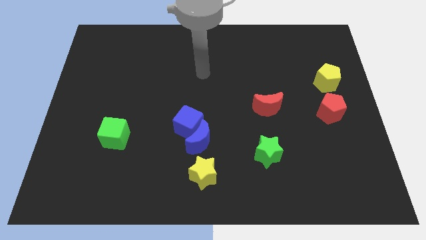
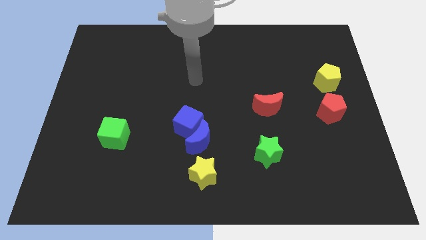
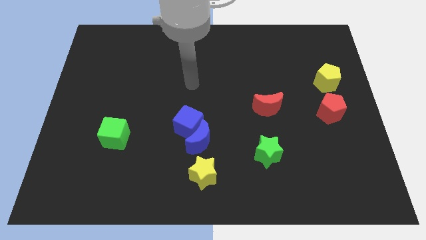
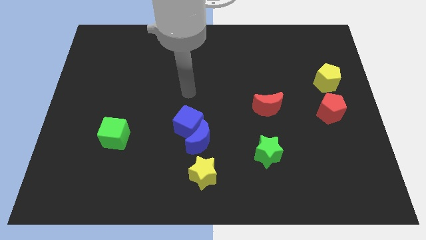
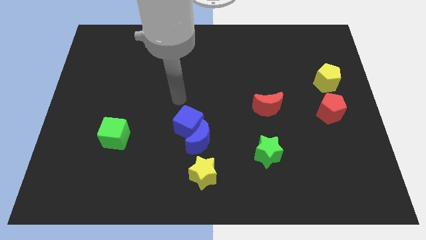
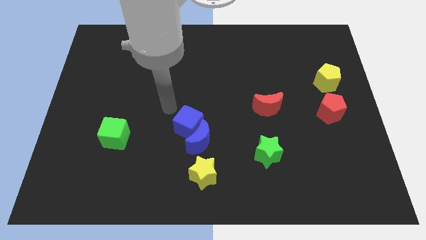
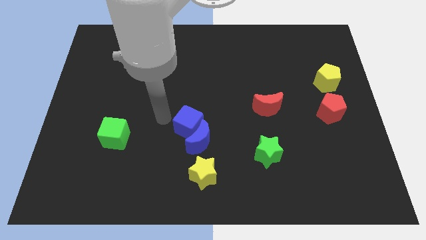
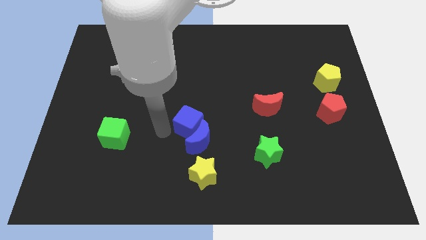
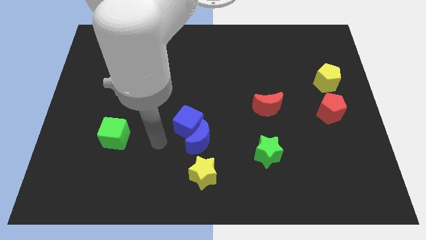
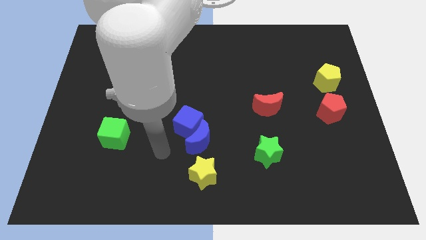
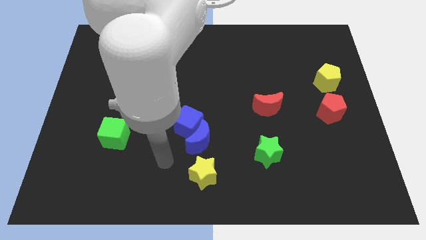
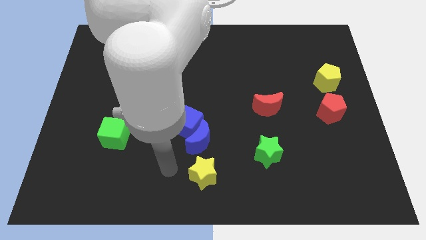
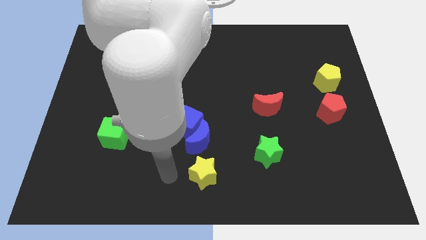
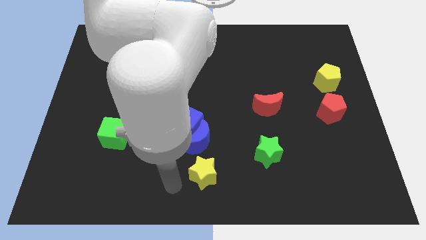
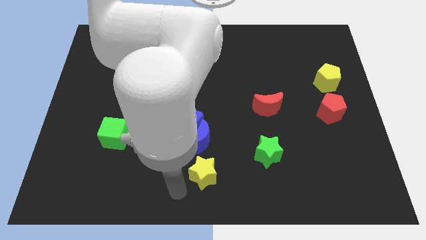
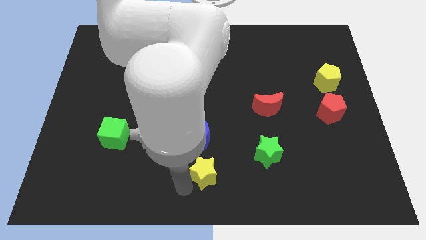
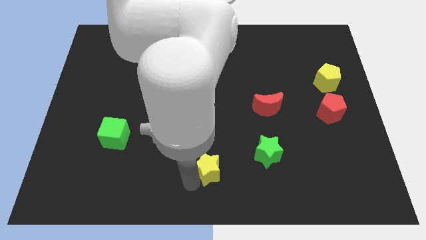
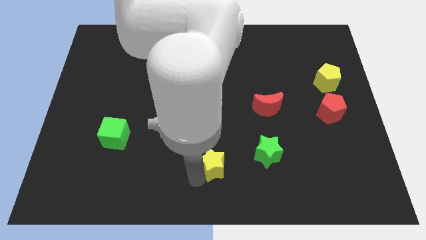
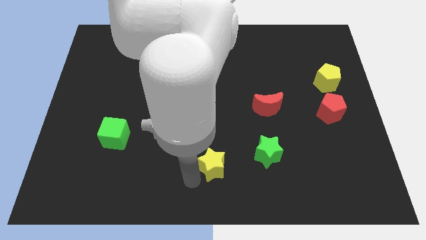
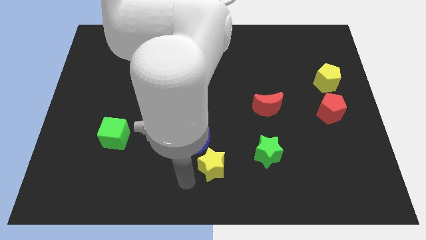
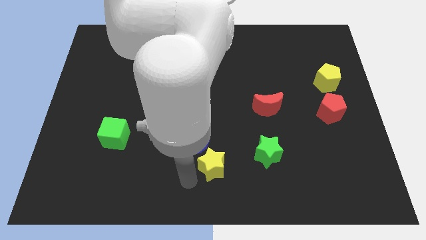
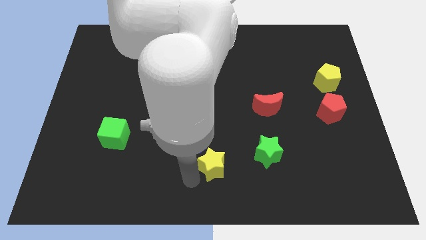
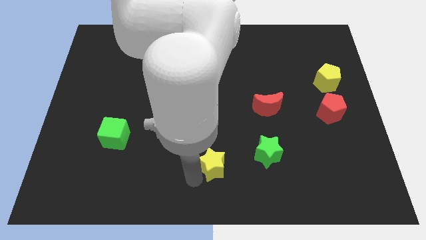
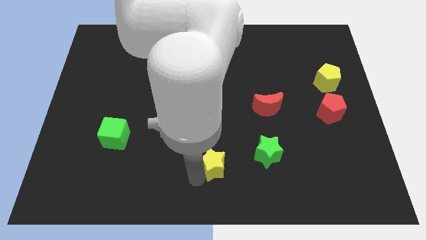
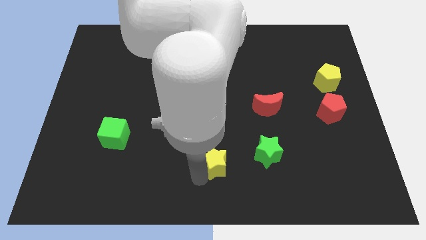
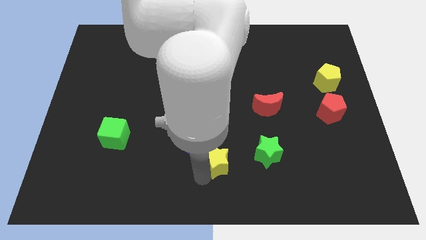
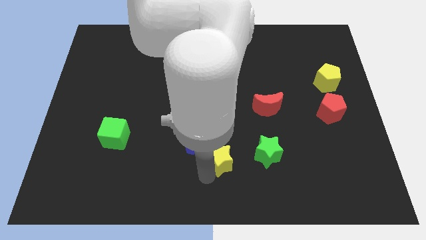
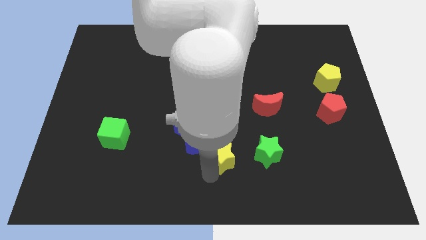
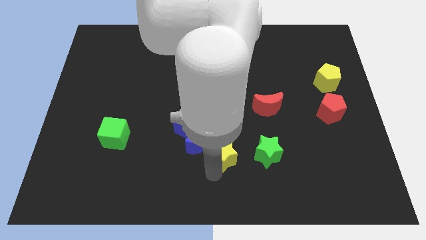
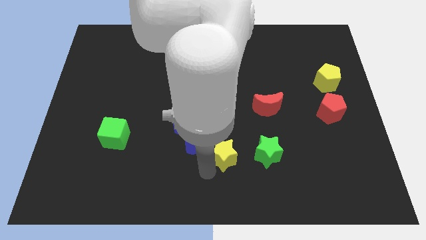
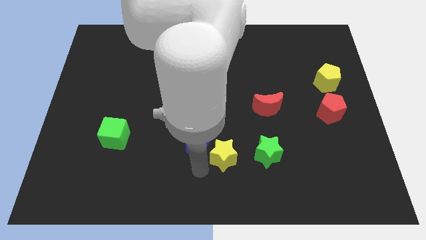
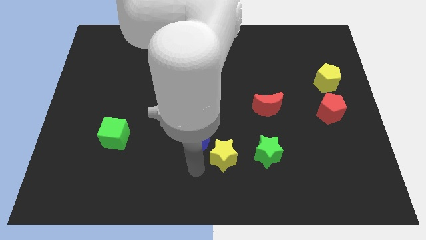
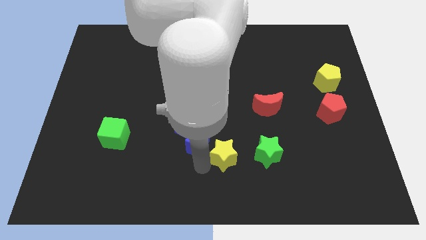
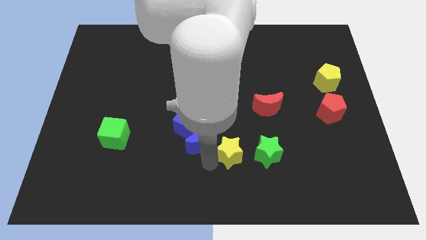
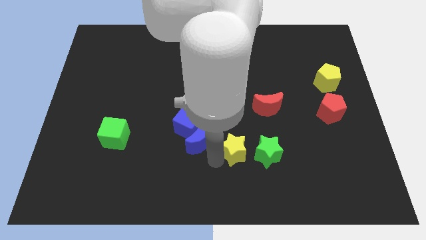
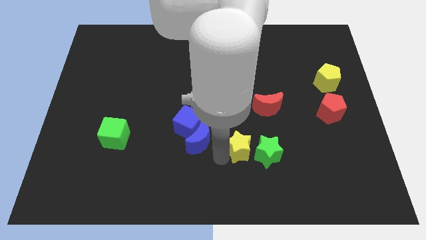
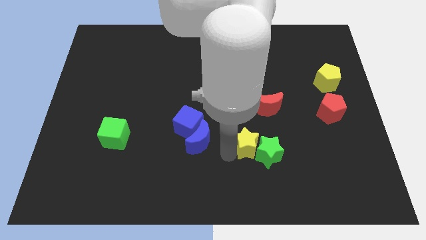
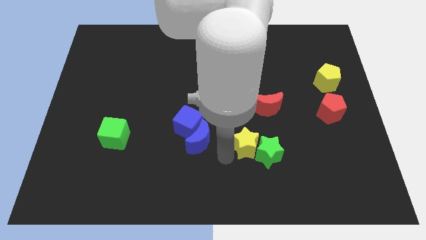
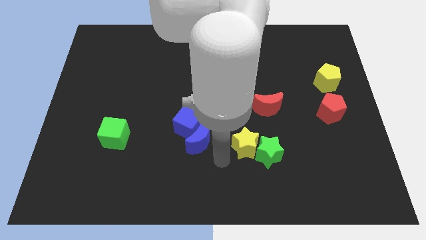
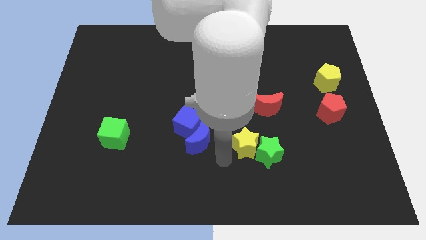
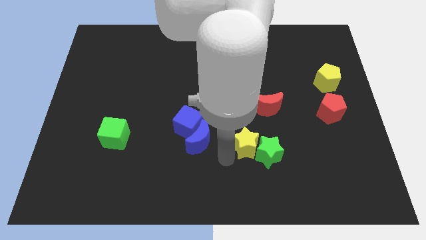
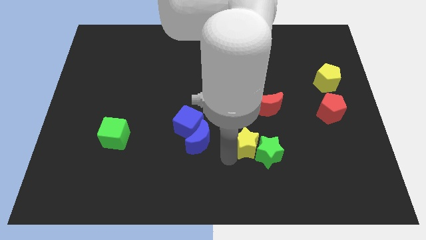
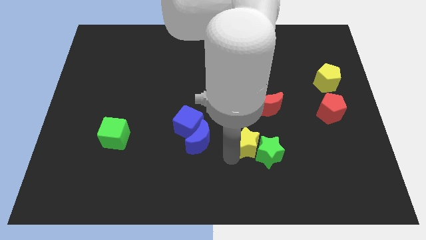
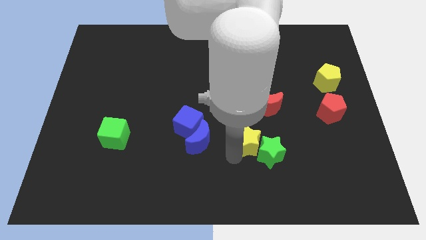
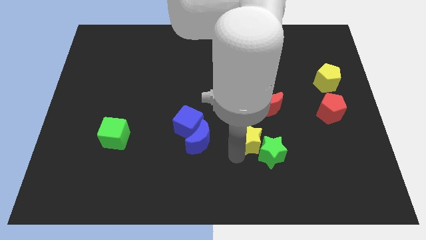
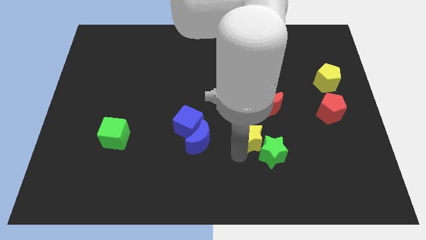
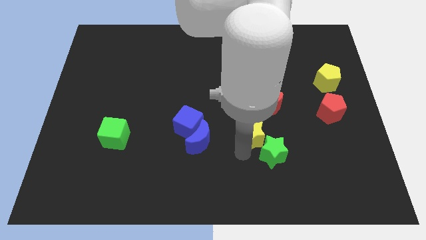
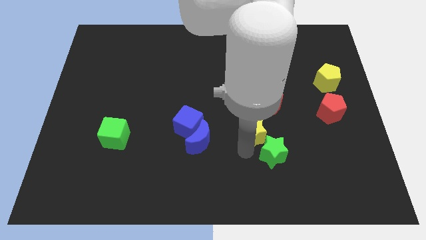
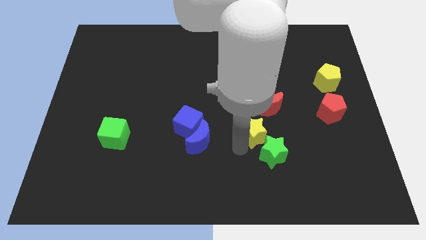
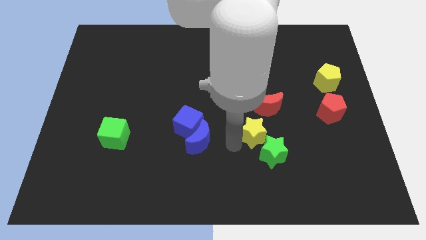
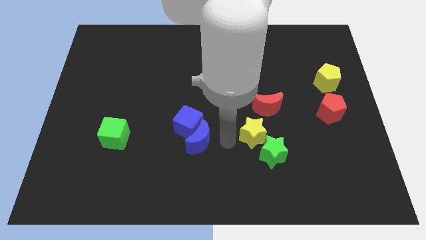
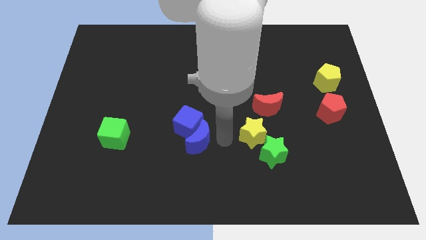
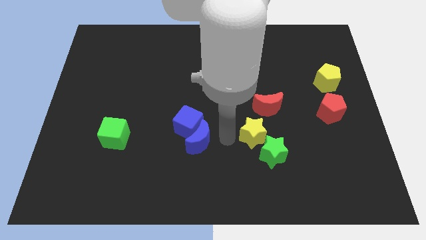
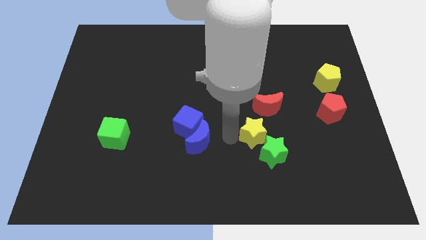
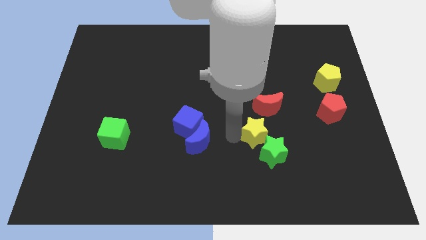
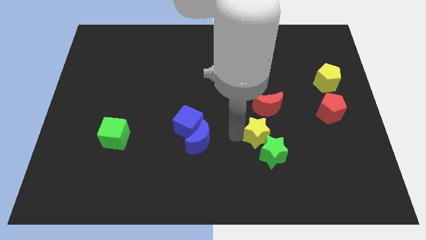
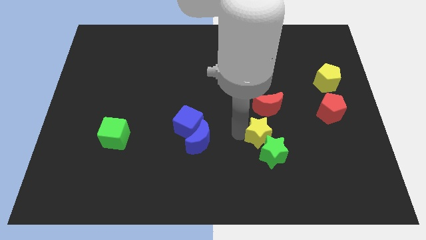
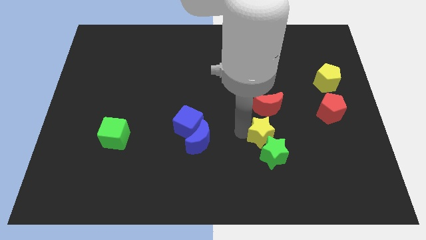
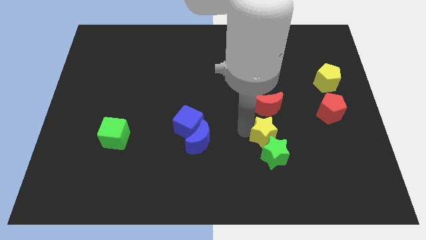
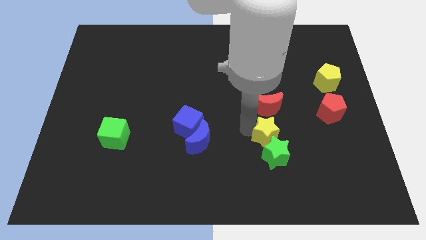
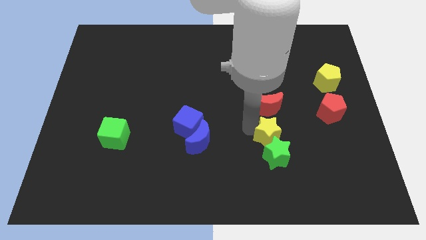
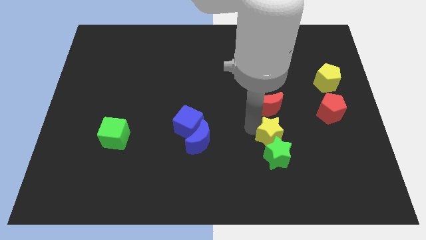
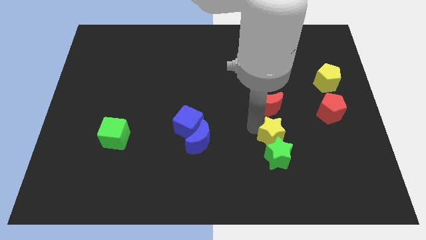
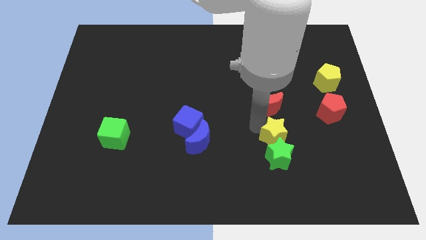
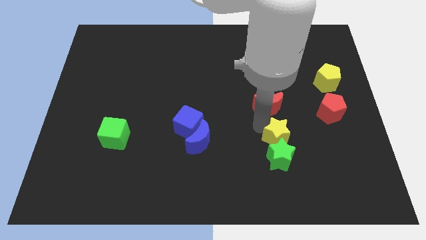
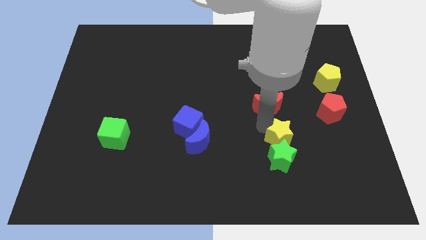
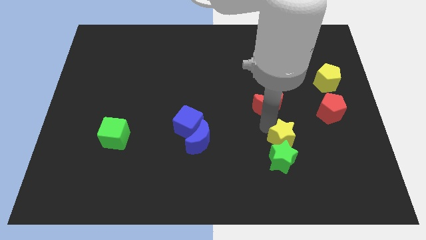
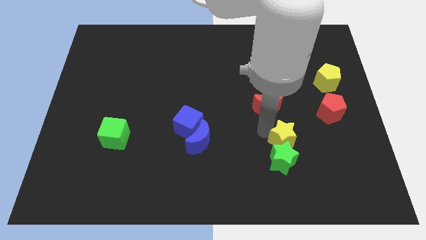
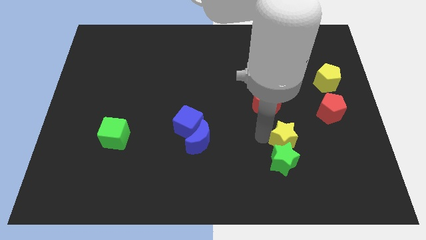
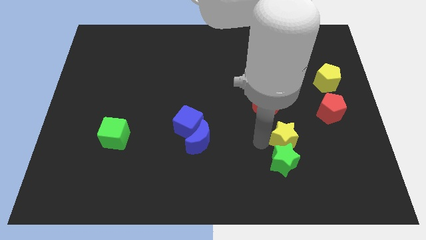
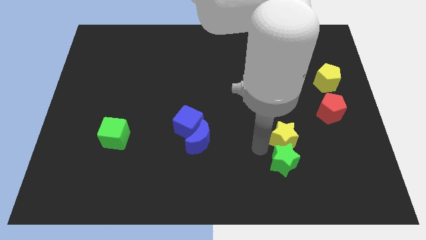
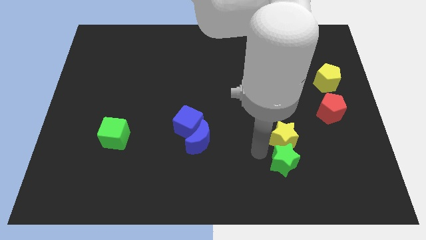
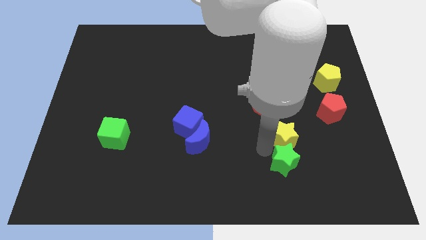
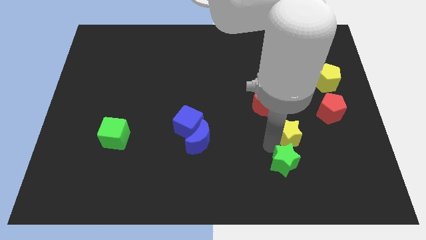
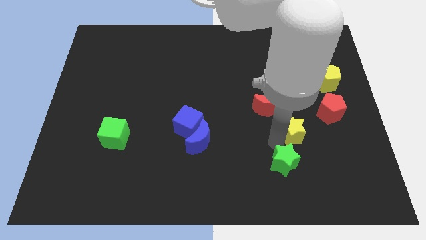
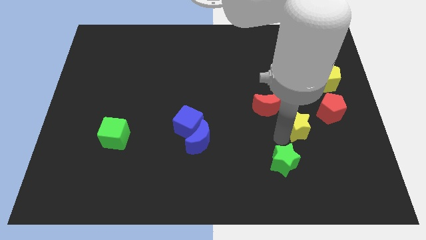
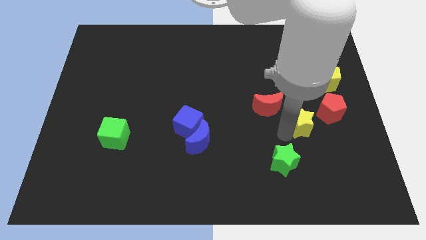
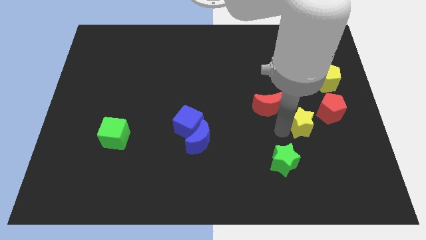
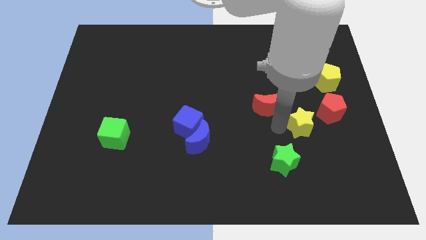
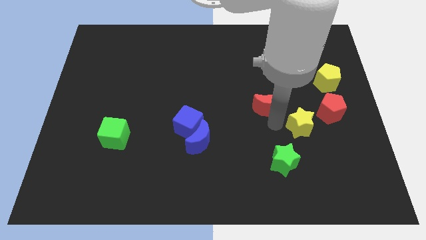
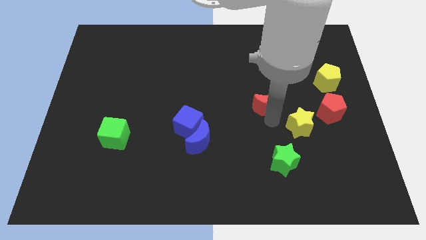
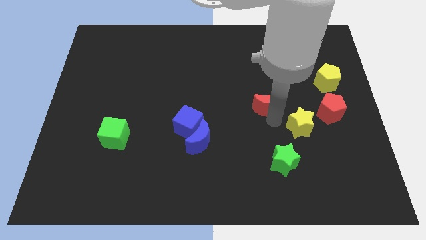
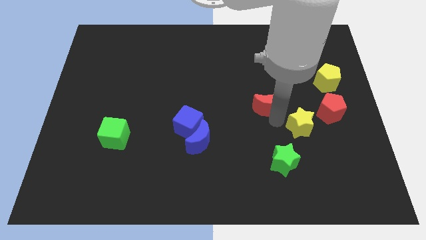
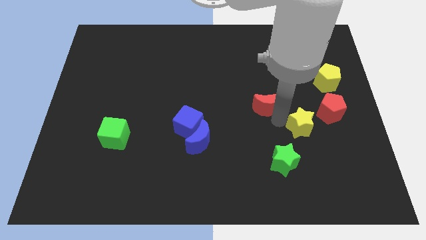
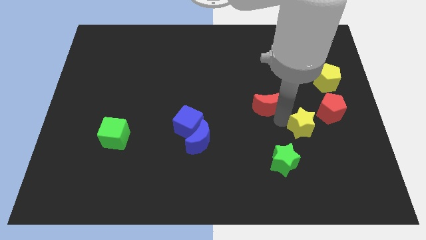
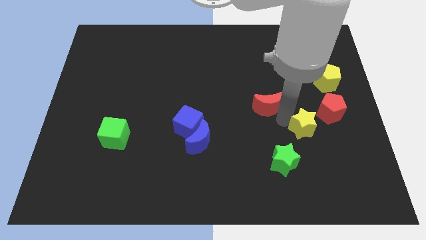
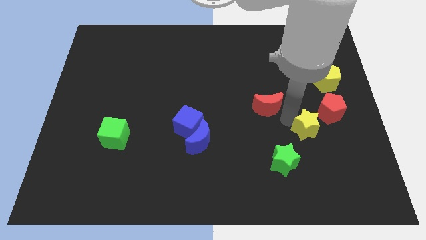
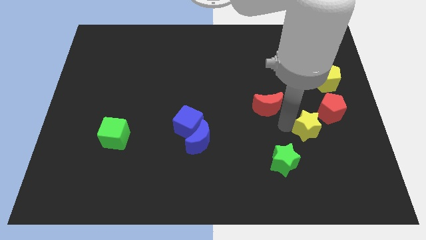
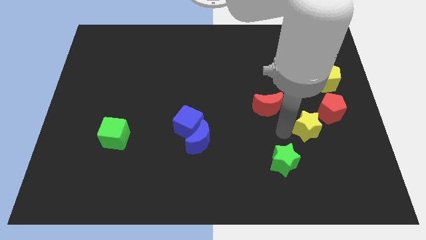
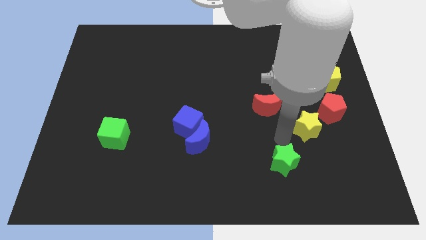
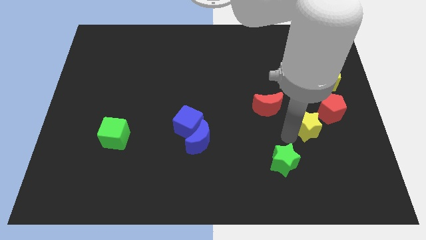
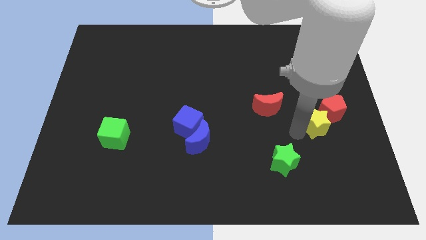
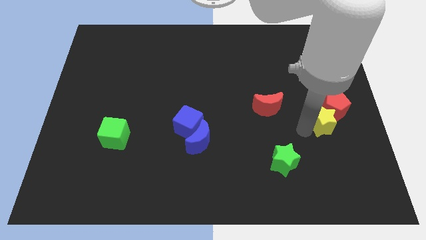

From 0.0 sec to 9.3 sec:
put the yellow star to the bottom of the yellow pentagon
